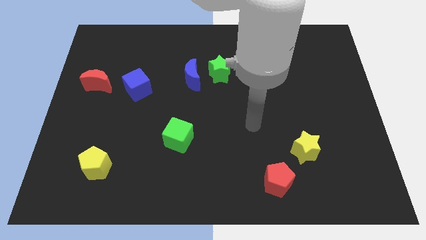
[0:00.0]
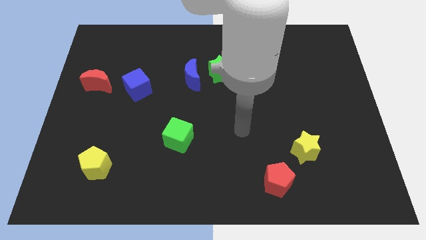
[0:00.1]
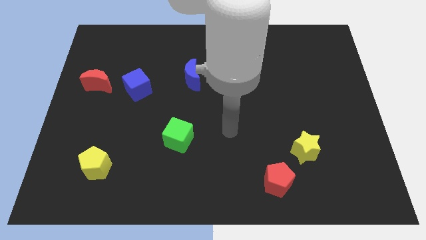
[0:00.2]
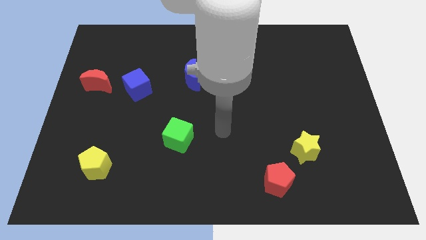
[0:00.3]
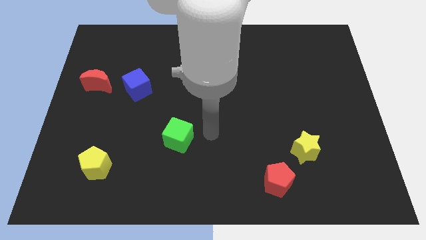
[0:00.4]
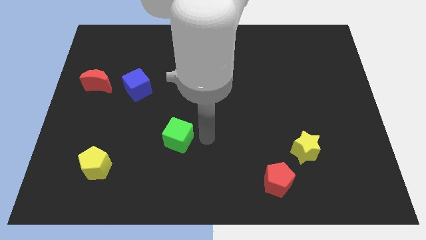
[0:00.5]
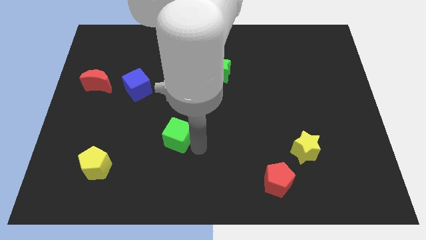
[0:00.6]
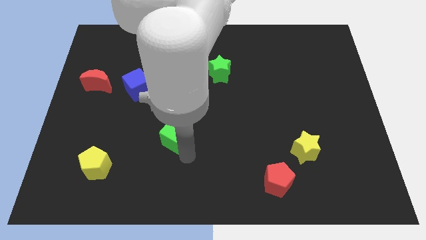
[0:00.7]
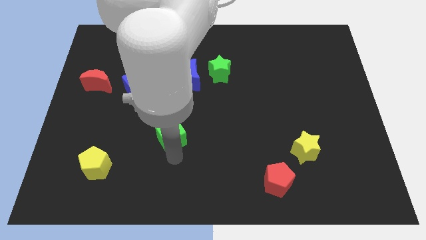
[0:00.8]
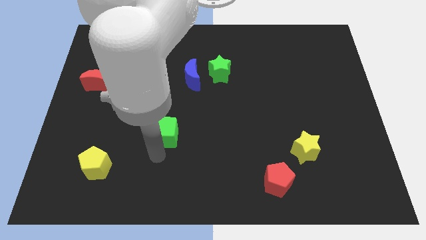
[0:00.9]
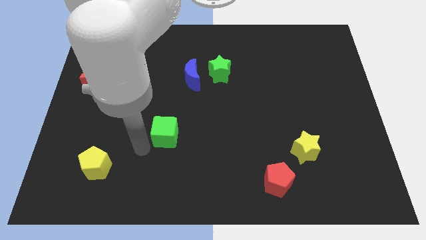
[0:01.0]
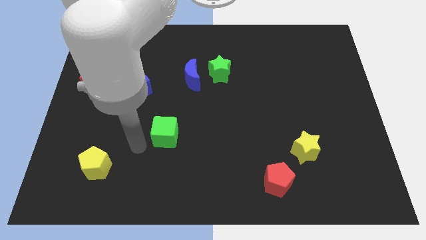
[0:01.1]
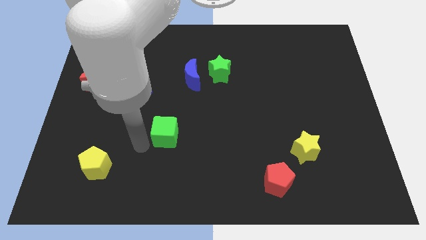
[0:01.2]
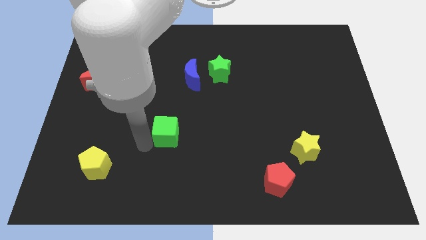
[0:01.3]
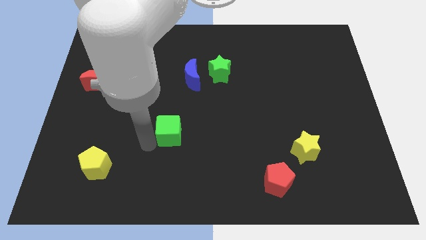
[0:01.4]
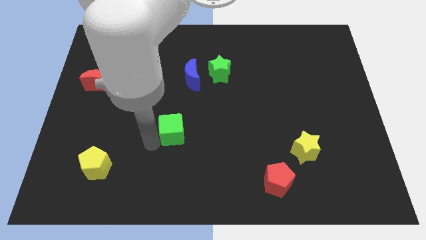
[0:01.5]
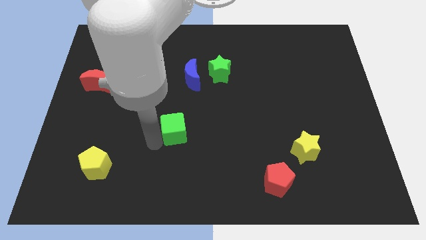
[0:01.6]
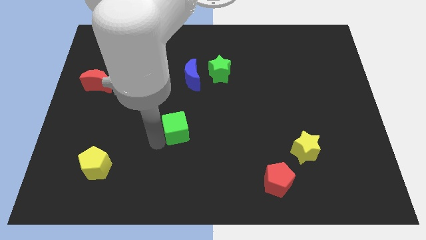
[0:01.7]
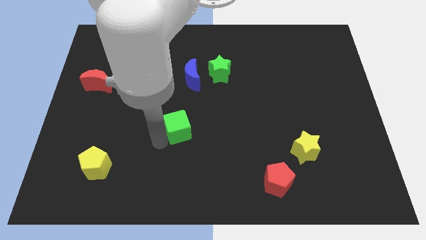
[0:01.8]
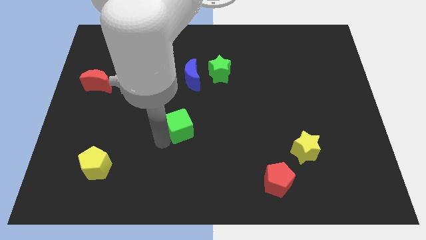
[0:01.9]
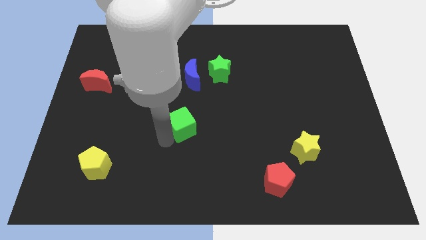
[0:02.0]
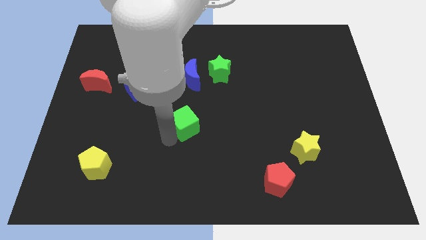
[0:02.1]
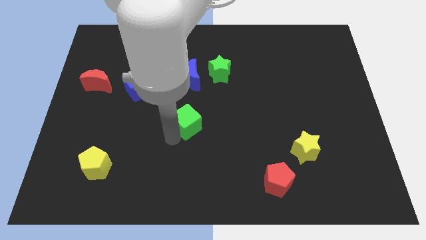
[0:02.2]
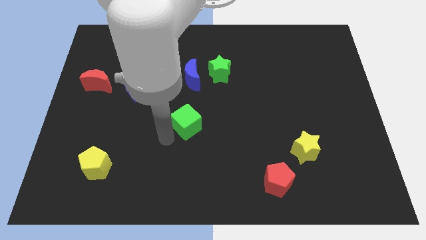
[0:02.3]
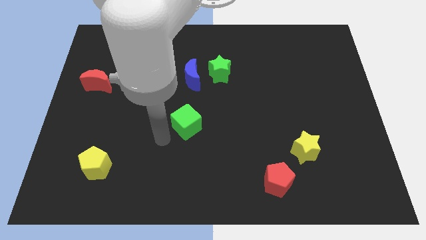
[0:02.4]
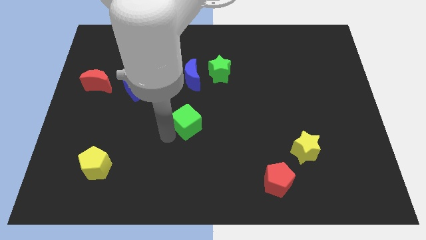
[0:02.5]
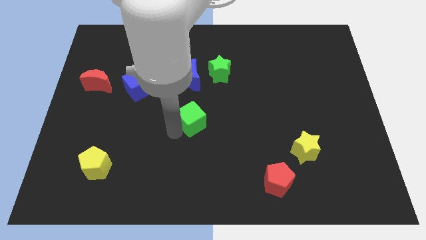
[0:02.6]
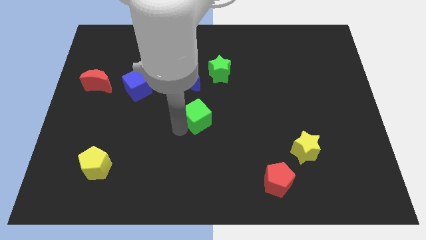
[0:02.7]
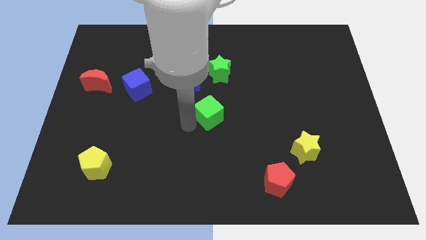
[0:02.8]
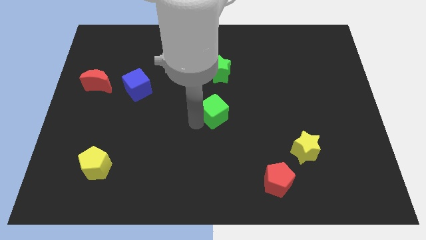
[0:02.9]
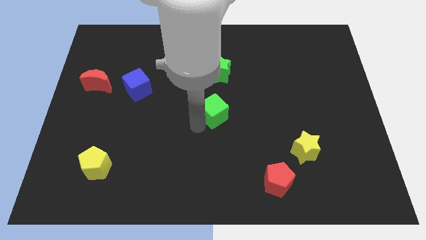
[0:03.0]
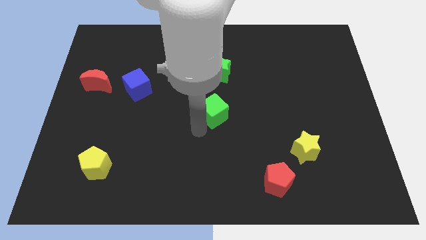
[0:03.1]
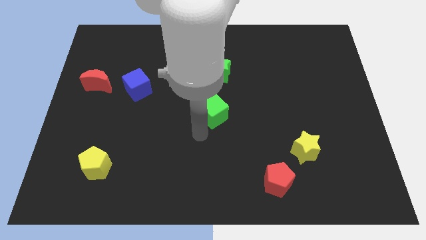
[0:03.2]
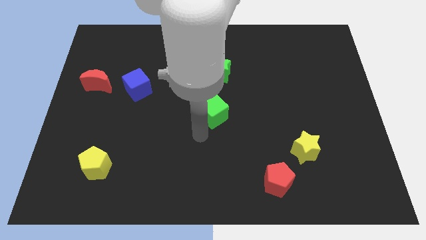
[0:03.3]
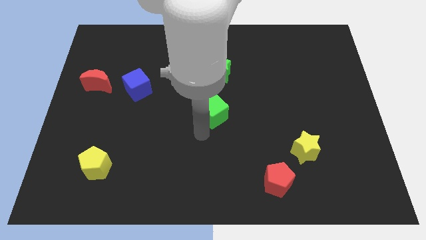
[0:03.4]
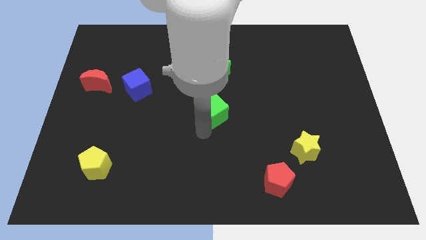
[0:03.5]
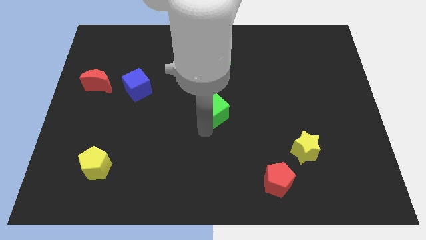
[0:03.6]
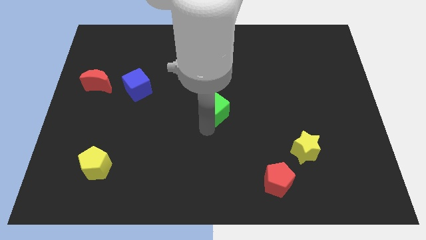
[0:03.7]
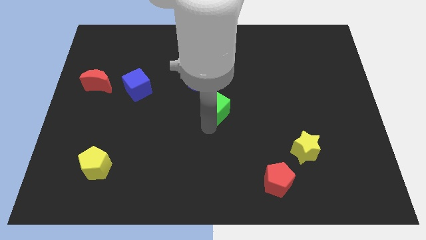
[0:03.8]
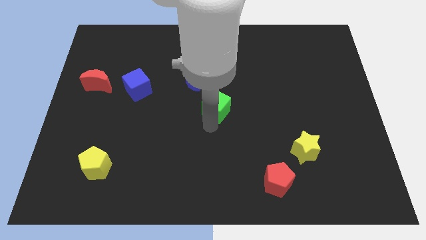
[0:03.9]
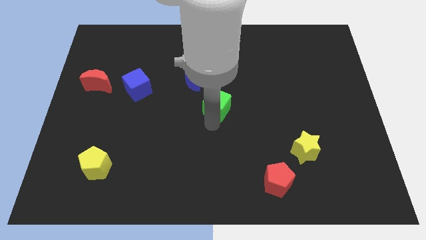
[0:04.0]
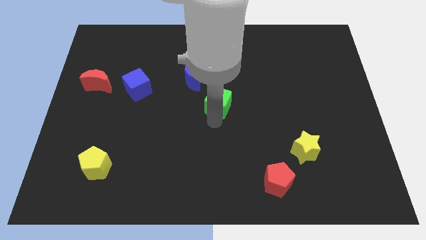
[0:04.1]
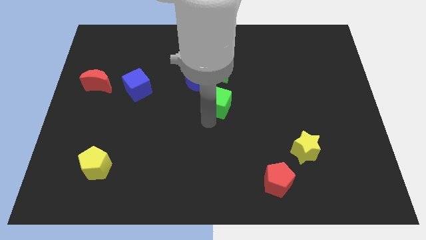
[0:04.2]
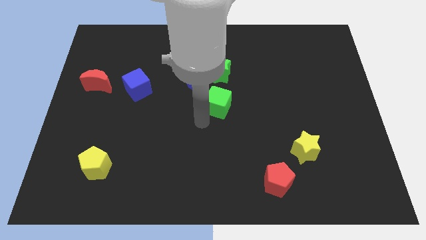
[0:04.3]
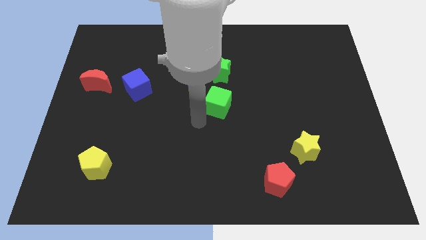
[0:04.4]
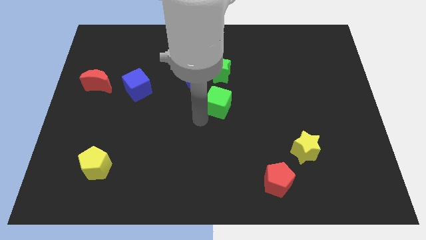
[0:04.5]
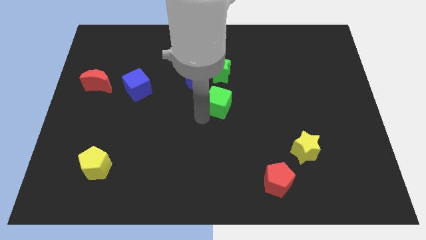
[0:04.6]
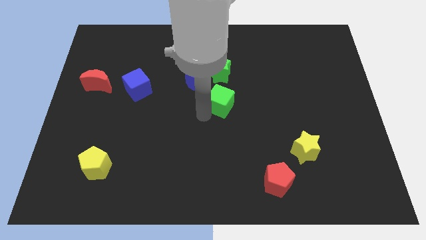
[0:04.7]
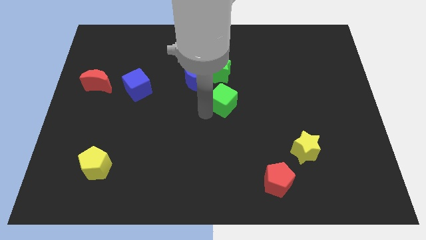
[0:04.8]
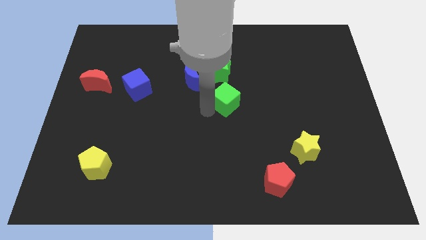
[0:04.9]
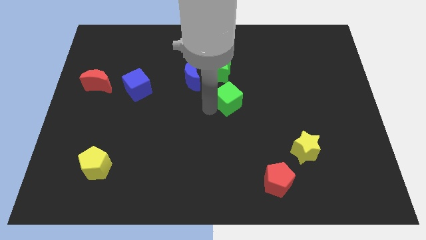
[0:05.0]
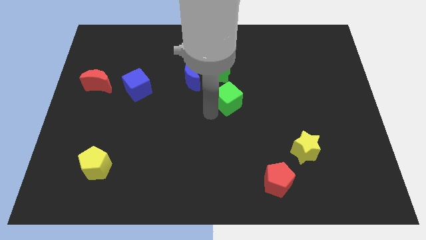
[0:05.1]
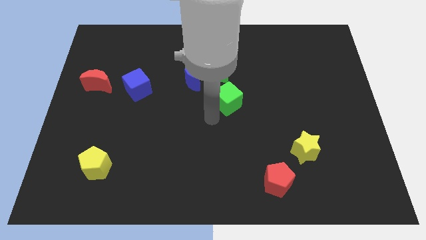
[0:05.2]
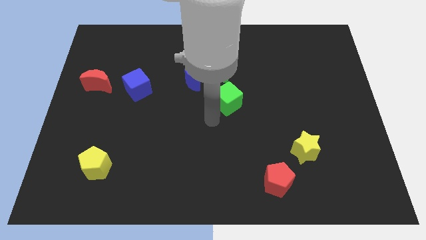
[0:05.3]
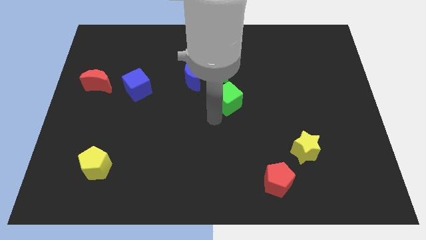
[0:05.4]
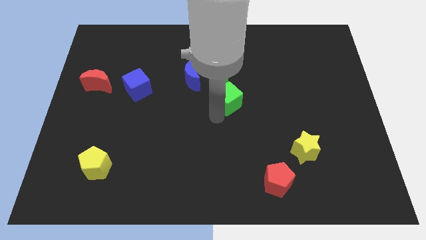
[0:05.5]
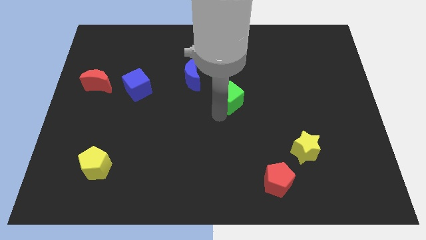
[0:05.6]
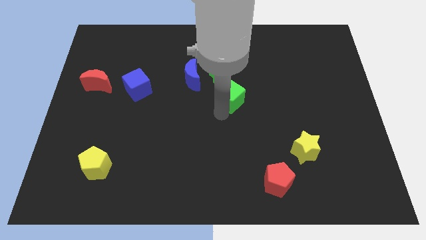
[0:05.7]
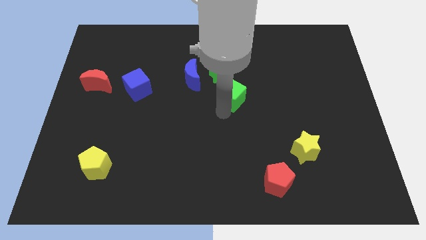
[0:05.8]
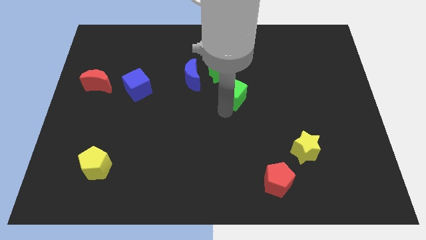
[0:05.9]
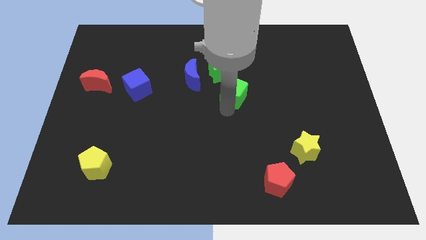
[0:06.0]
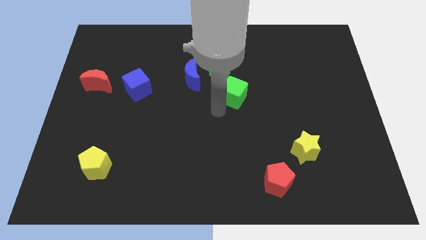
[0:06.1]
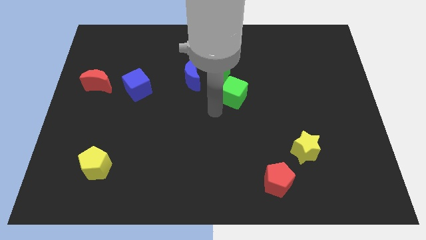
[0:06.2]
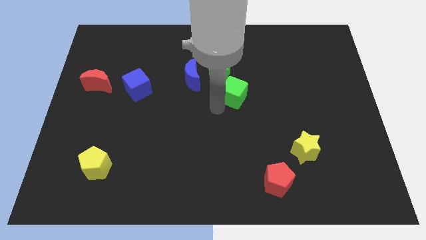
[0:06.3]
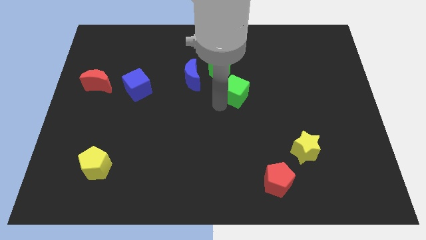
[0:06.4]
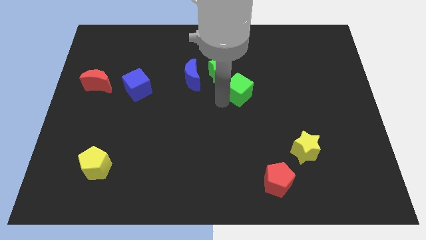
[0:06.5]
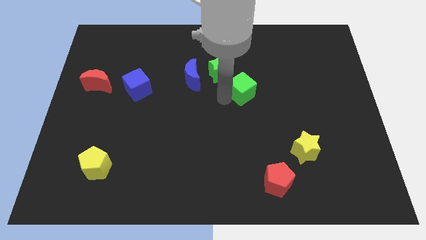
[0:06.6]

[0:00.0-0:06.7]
move the green cube up and right diagonally

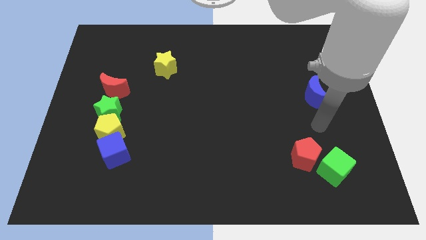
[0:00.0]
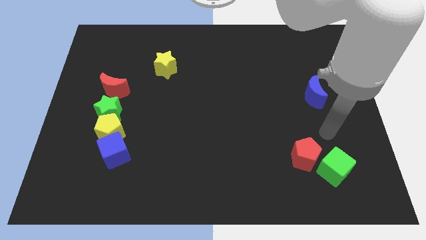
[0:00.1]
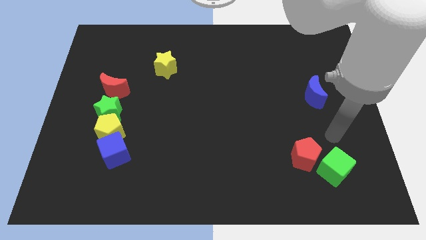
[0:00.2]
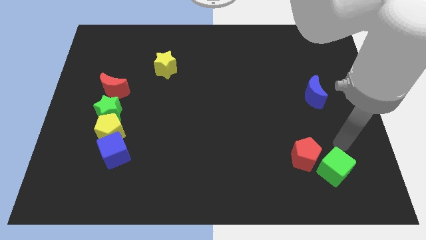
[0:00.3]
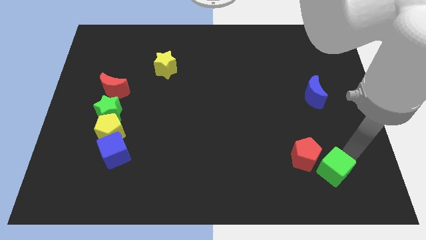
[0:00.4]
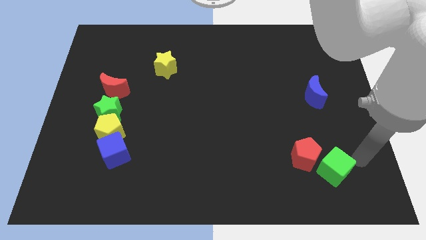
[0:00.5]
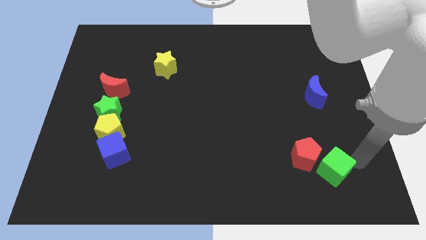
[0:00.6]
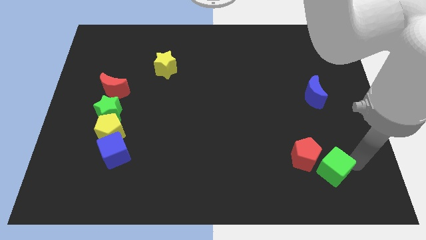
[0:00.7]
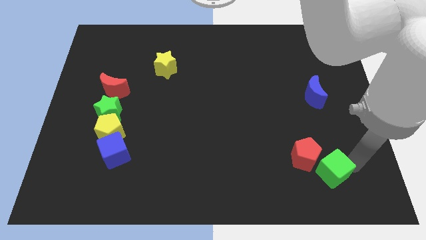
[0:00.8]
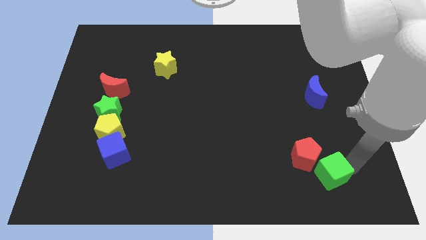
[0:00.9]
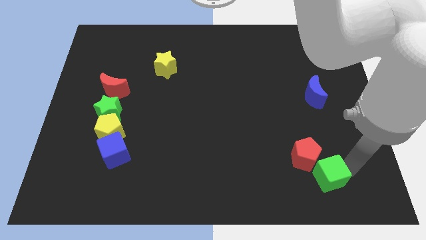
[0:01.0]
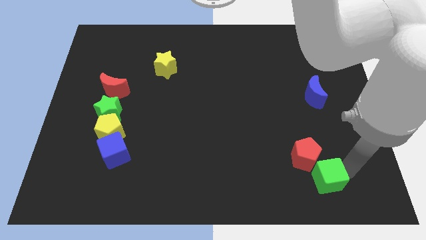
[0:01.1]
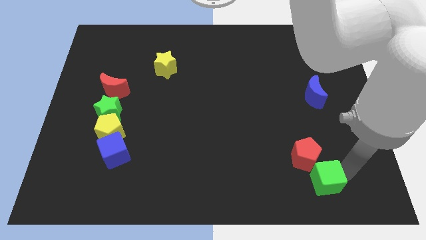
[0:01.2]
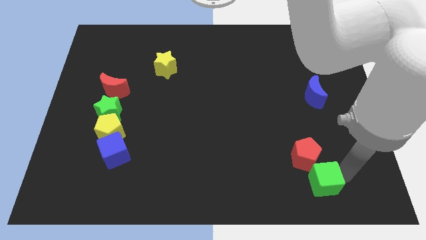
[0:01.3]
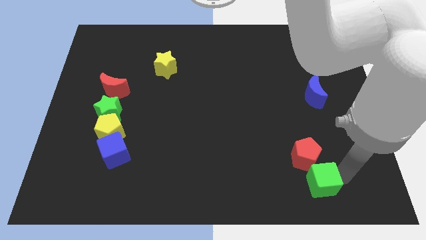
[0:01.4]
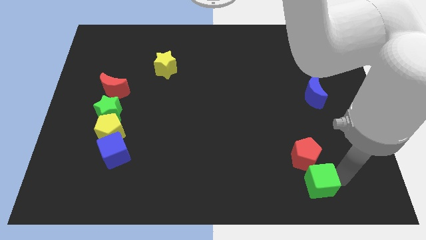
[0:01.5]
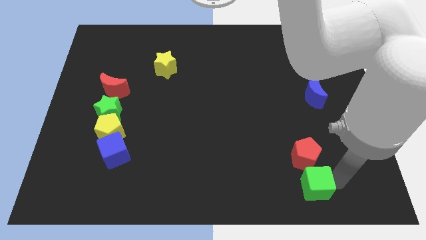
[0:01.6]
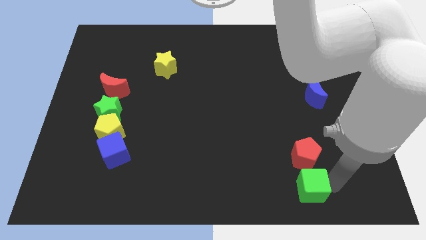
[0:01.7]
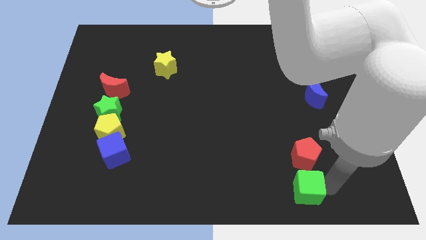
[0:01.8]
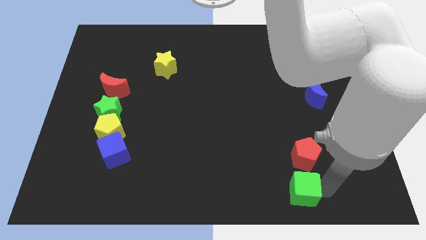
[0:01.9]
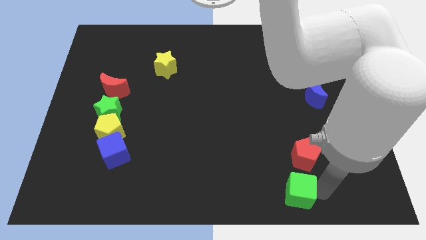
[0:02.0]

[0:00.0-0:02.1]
slide the green cube left slightly
